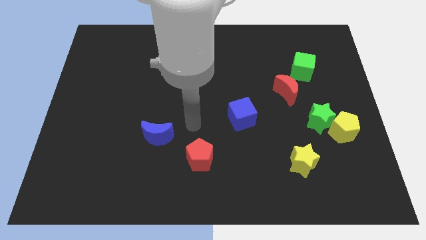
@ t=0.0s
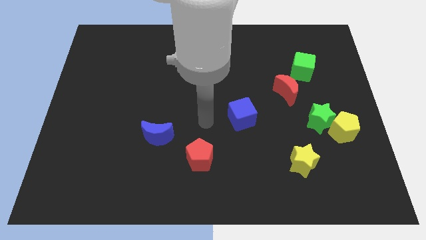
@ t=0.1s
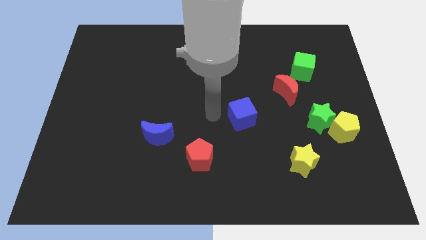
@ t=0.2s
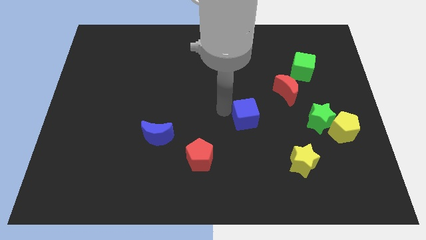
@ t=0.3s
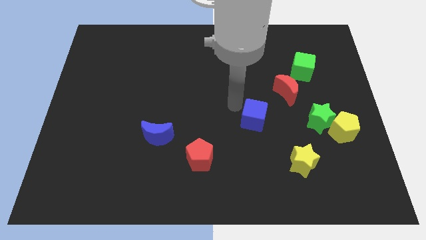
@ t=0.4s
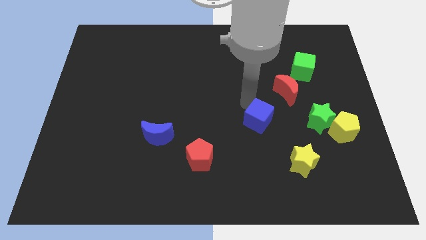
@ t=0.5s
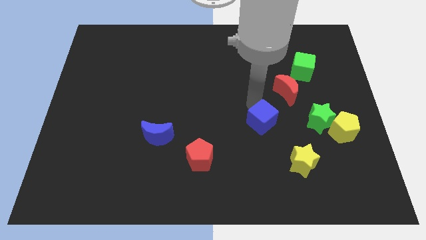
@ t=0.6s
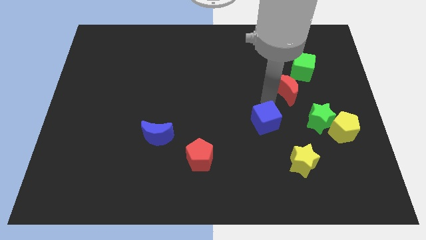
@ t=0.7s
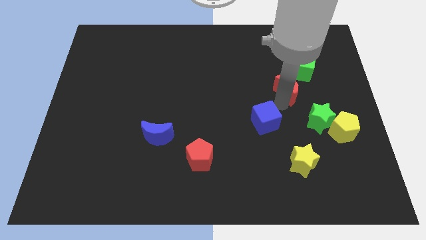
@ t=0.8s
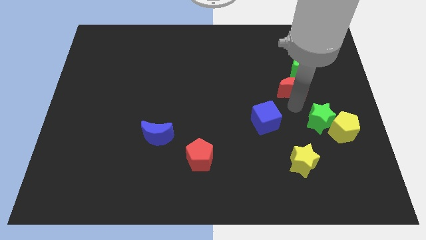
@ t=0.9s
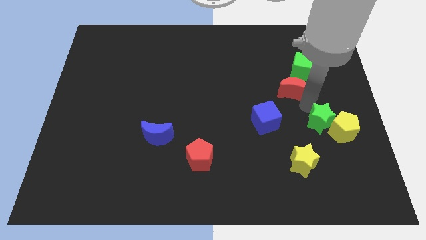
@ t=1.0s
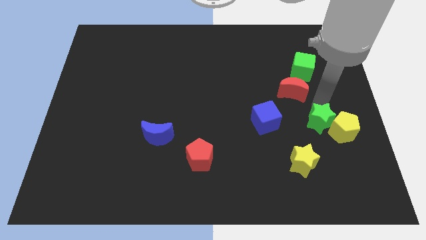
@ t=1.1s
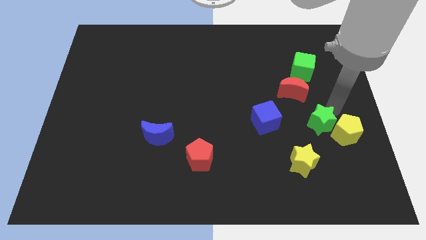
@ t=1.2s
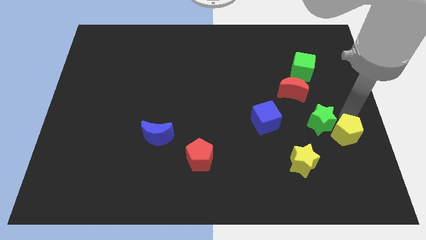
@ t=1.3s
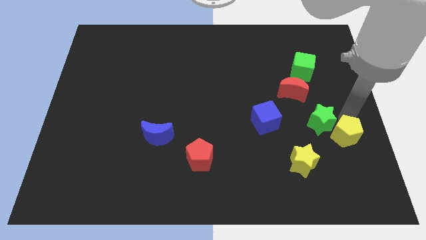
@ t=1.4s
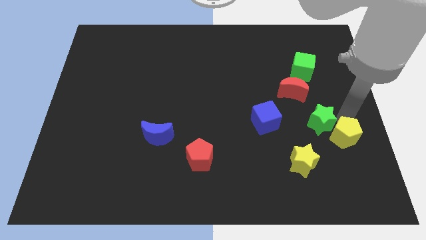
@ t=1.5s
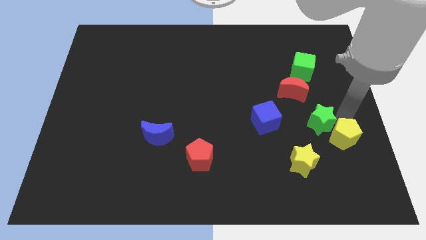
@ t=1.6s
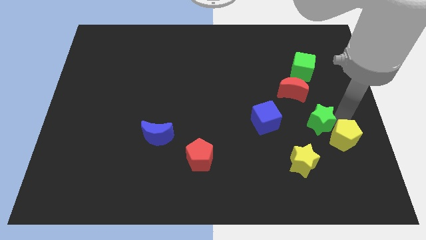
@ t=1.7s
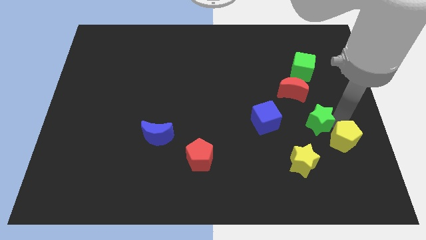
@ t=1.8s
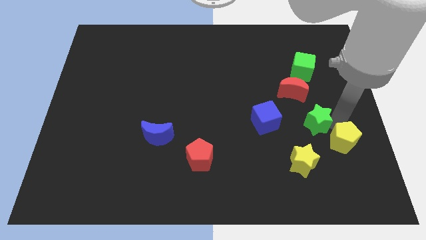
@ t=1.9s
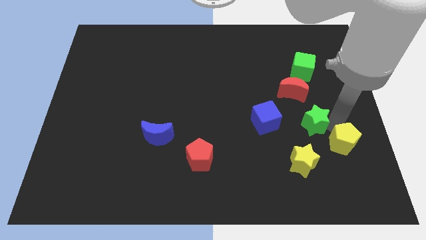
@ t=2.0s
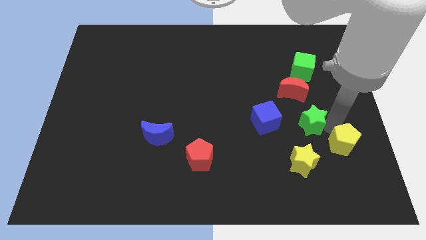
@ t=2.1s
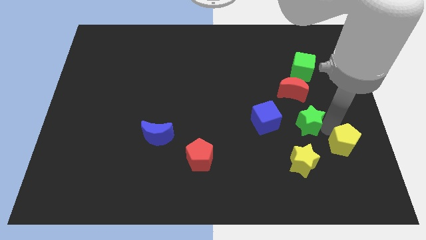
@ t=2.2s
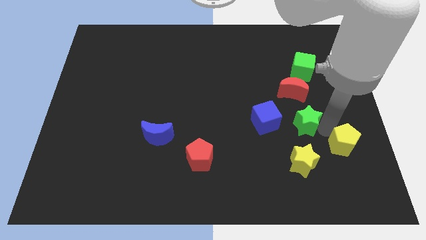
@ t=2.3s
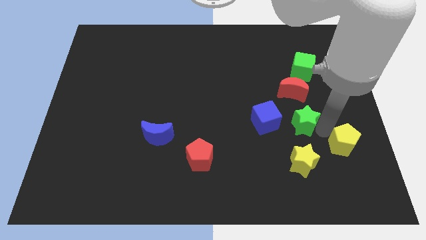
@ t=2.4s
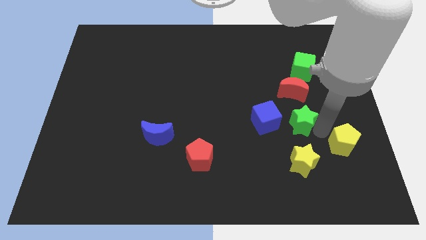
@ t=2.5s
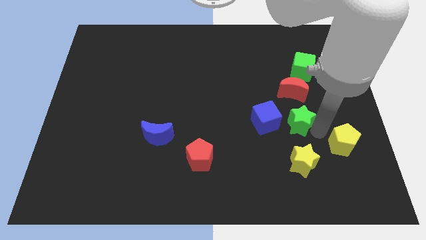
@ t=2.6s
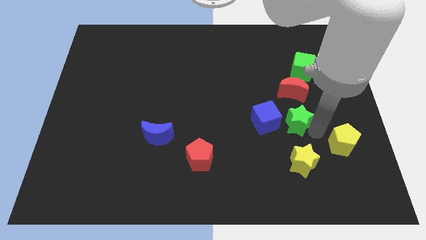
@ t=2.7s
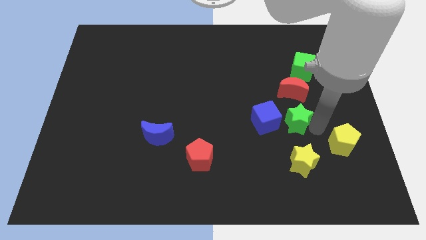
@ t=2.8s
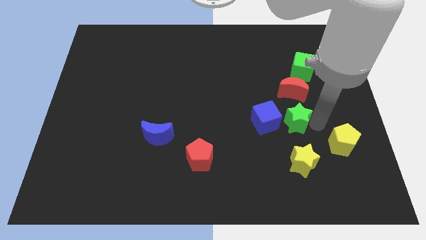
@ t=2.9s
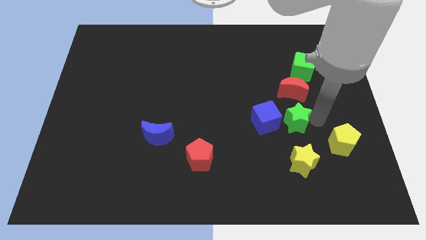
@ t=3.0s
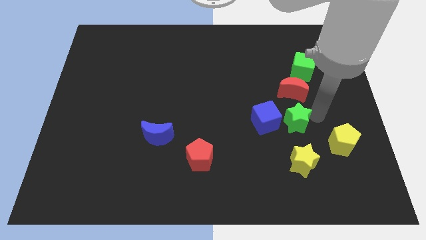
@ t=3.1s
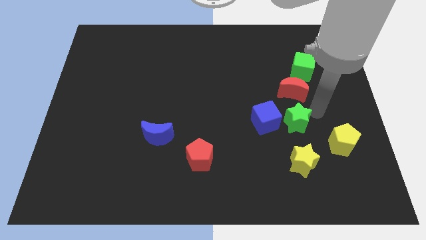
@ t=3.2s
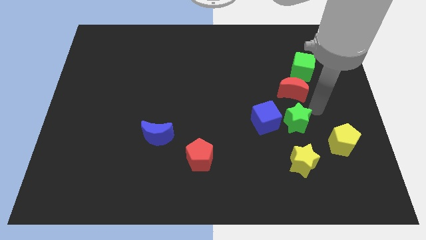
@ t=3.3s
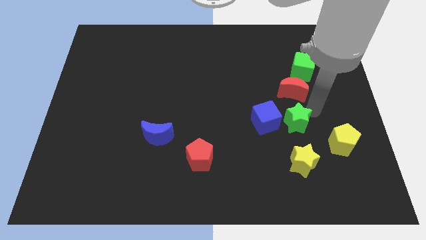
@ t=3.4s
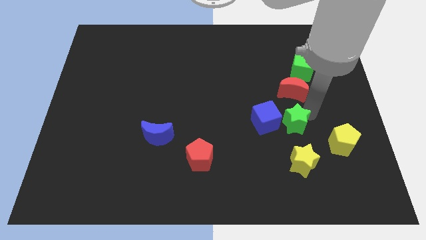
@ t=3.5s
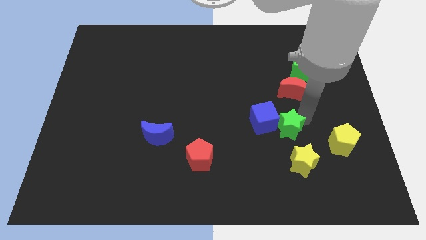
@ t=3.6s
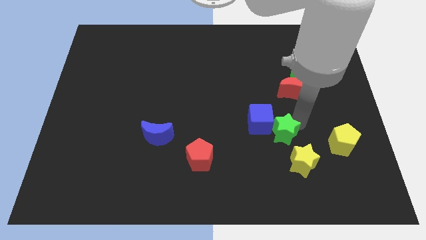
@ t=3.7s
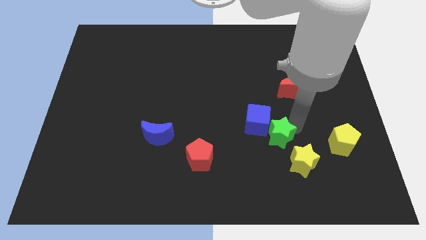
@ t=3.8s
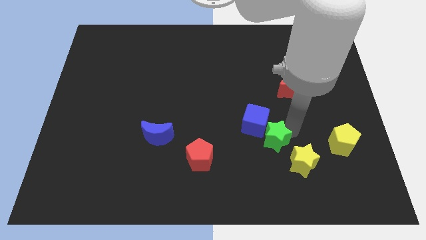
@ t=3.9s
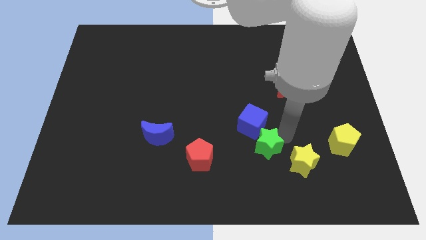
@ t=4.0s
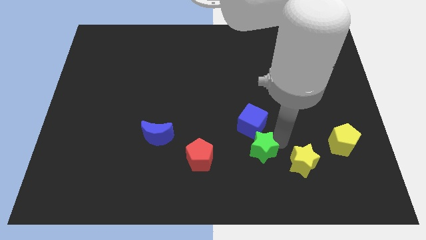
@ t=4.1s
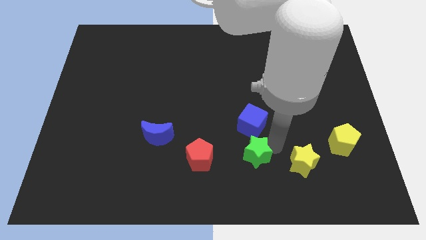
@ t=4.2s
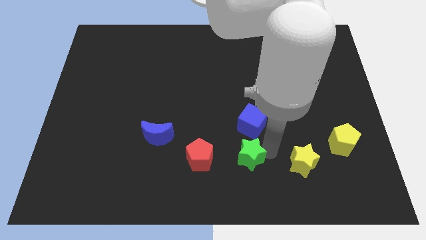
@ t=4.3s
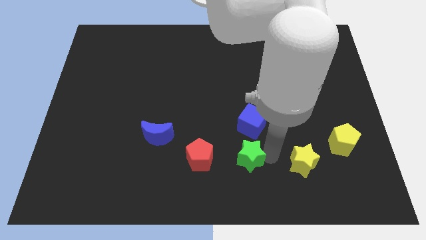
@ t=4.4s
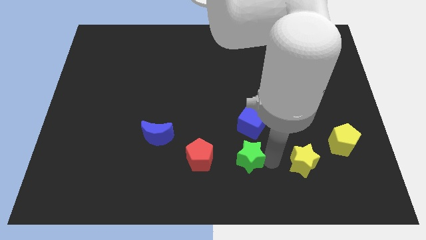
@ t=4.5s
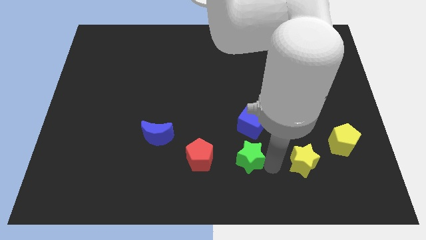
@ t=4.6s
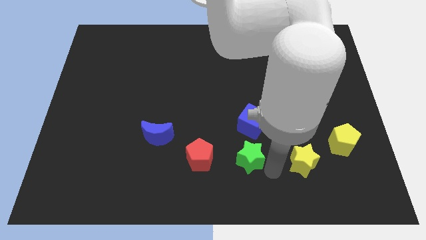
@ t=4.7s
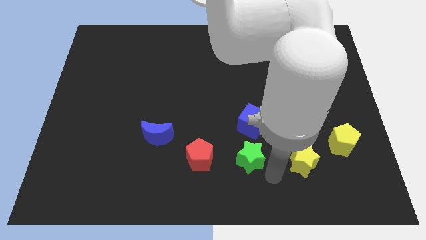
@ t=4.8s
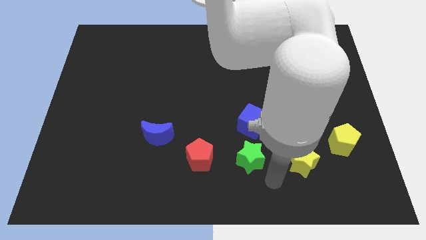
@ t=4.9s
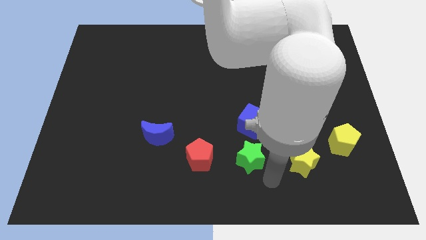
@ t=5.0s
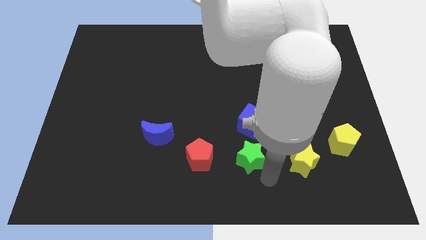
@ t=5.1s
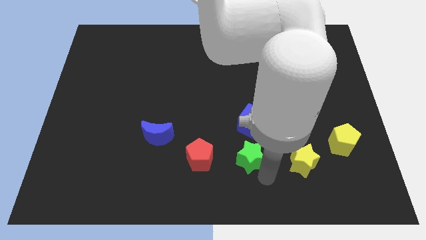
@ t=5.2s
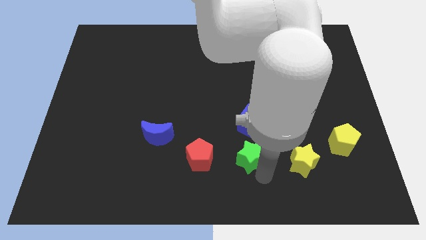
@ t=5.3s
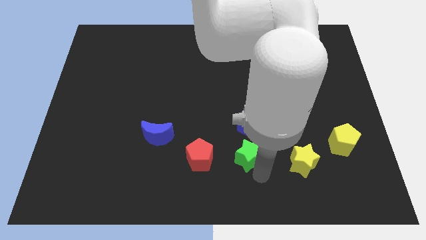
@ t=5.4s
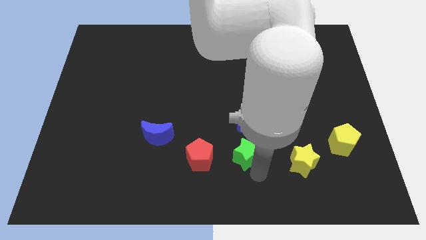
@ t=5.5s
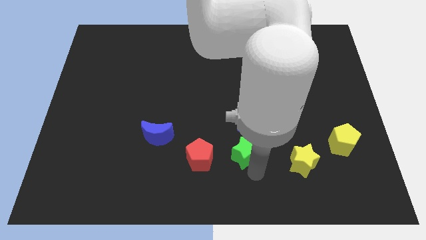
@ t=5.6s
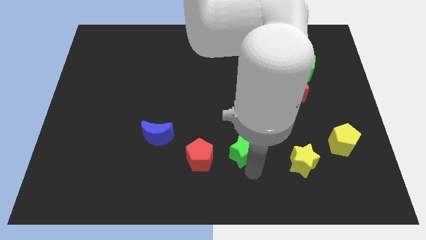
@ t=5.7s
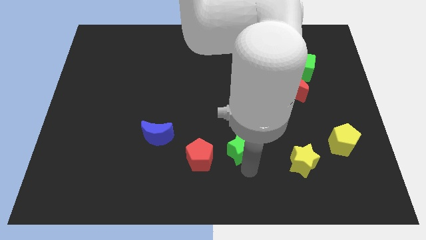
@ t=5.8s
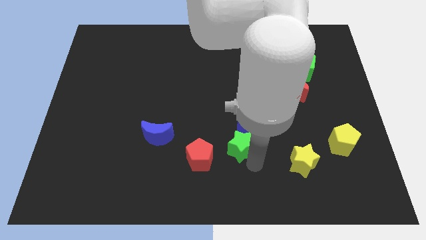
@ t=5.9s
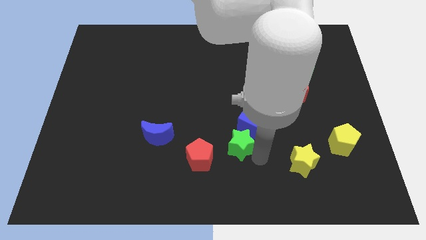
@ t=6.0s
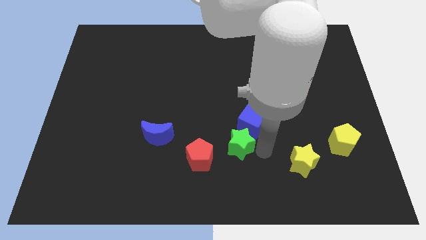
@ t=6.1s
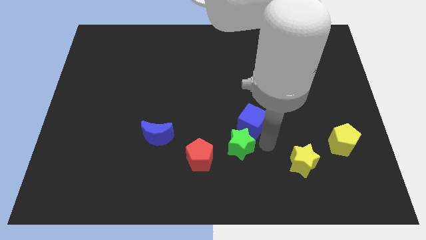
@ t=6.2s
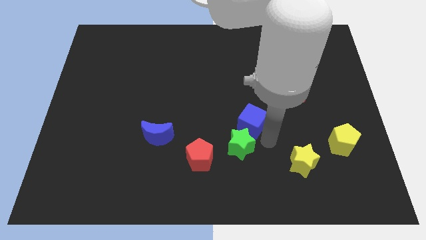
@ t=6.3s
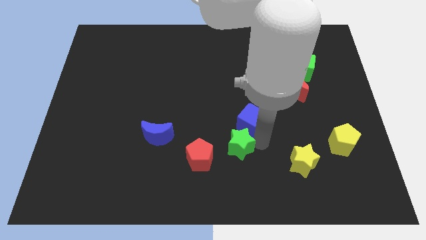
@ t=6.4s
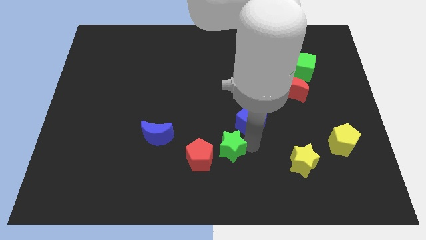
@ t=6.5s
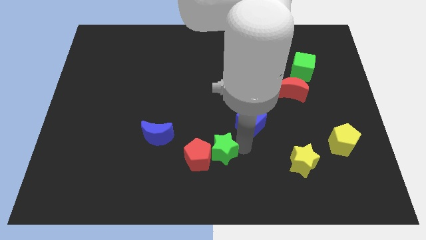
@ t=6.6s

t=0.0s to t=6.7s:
move the green star close to the red pentagon
